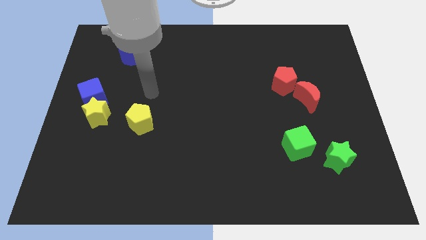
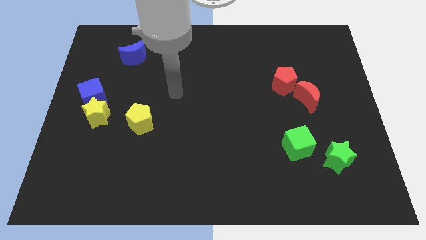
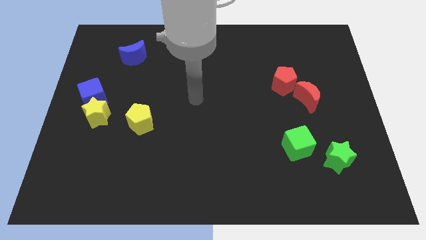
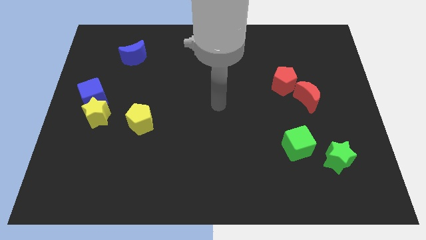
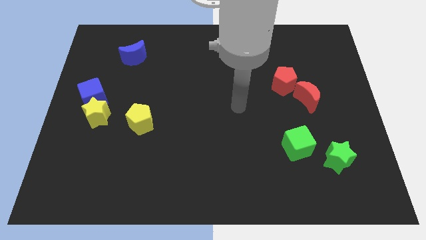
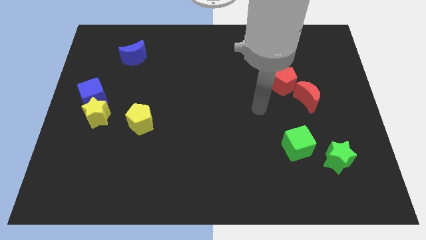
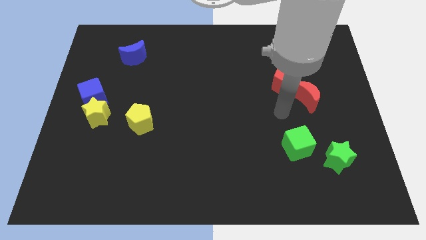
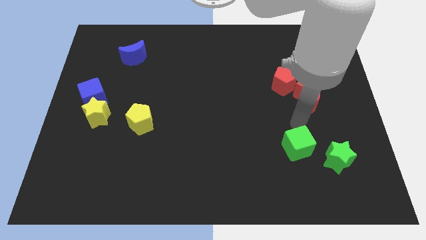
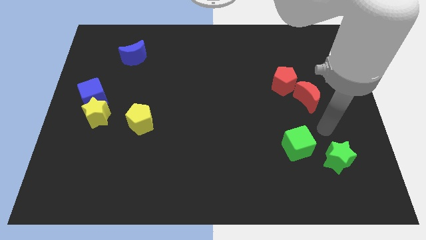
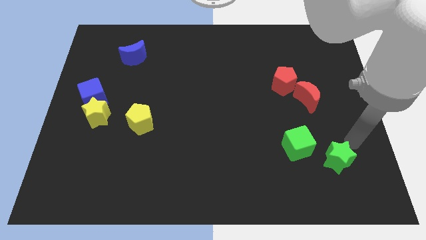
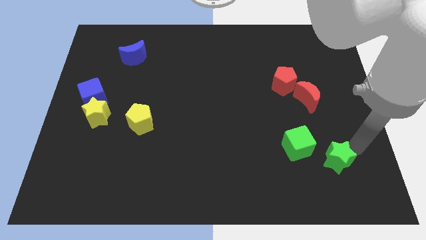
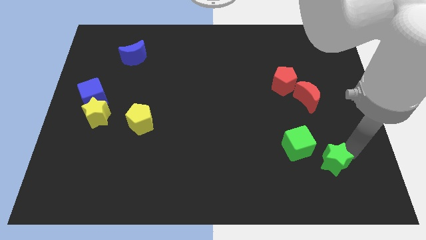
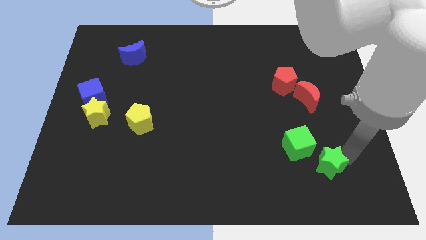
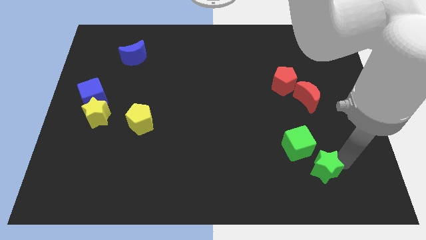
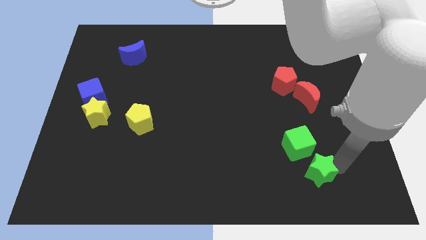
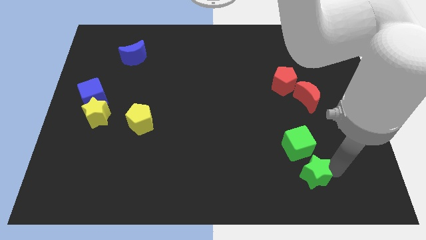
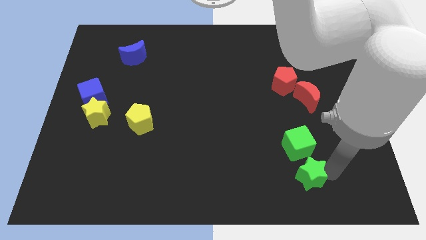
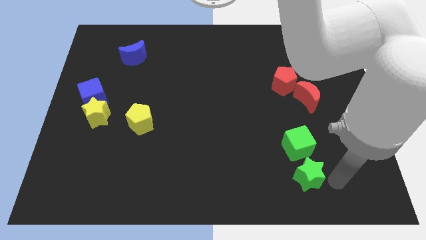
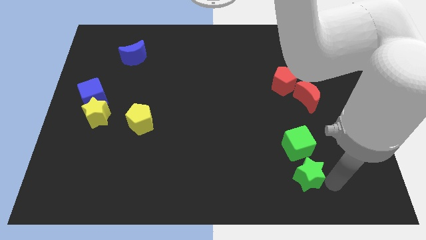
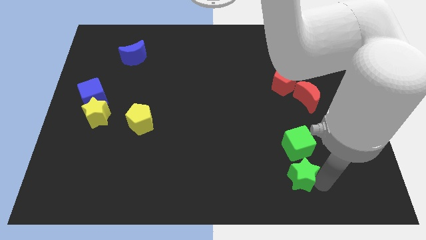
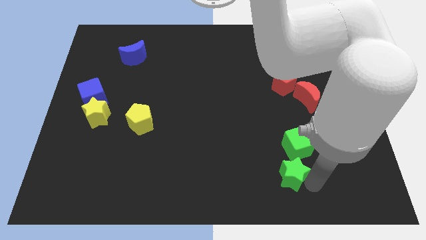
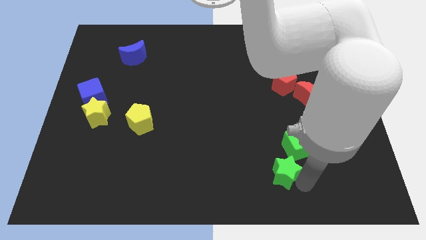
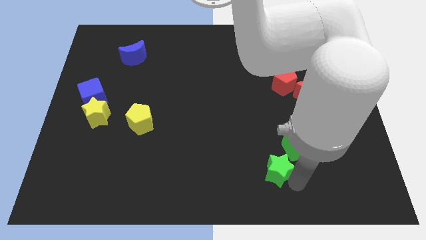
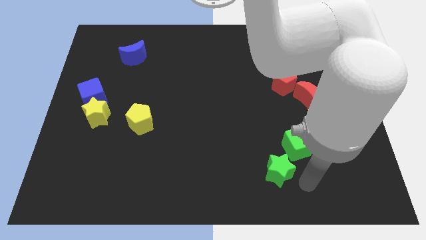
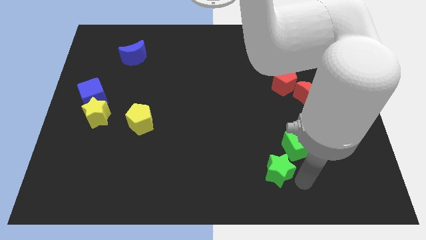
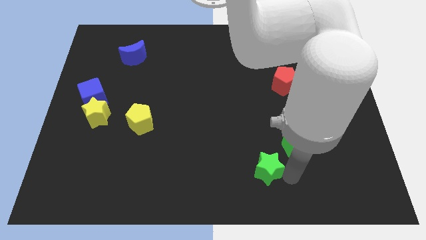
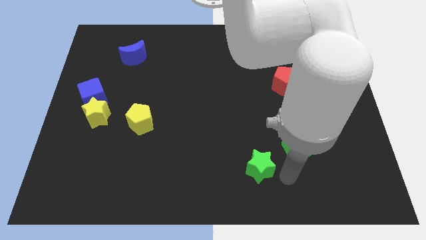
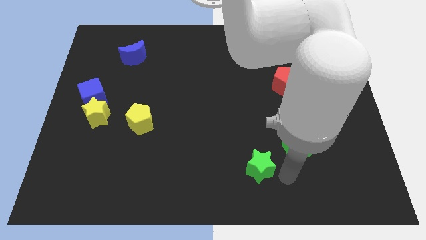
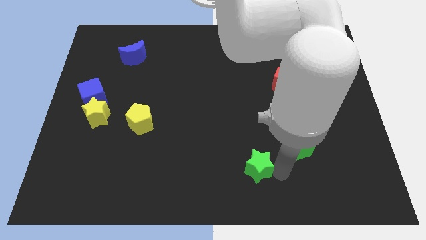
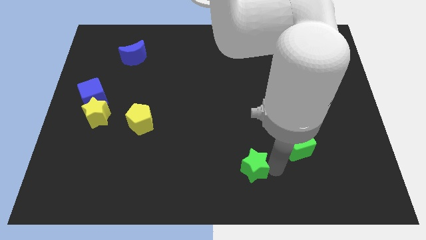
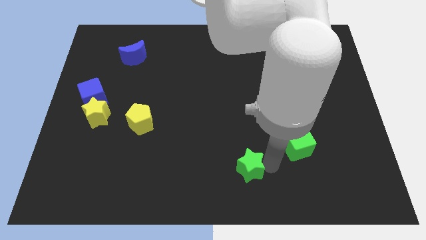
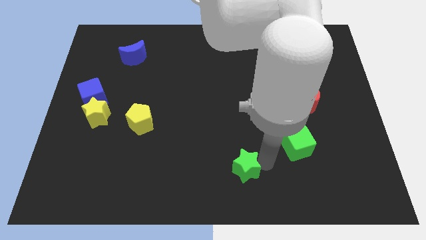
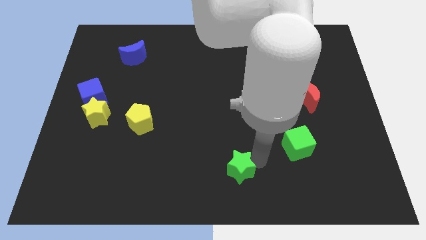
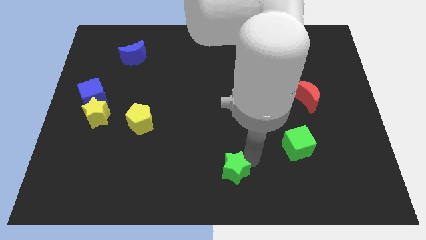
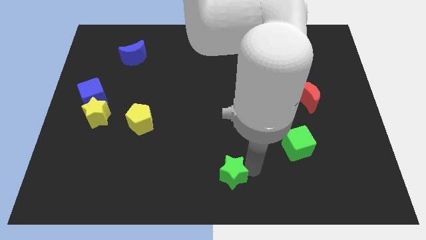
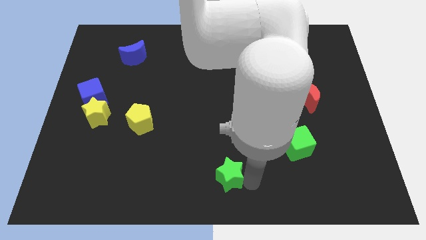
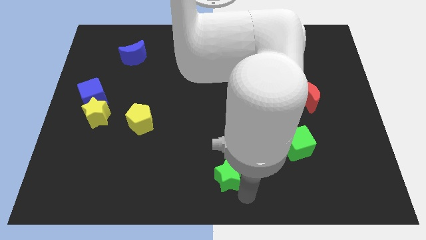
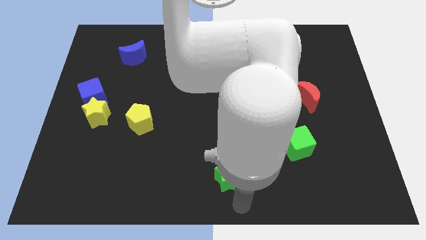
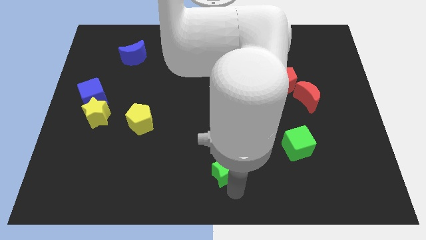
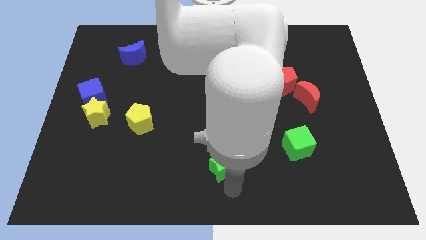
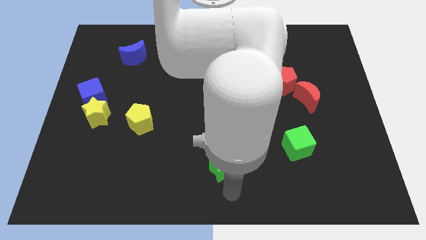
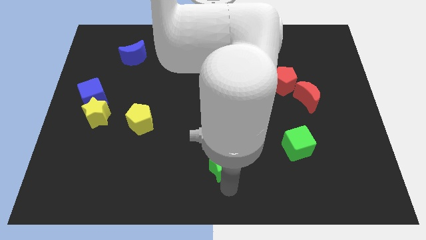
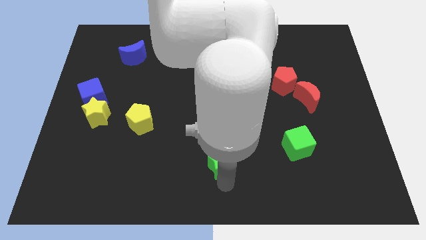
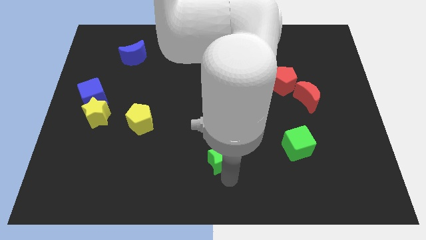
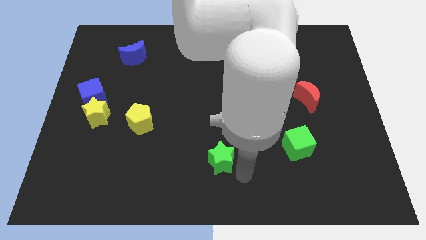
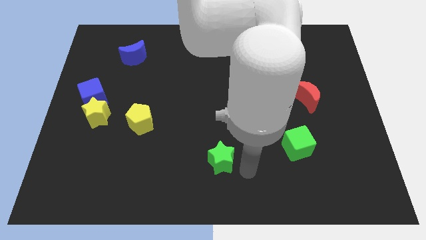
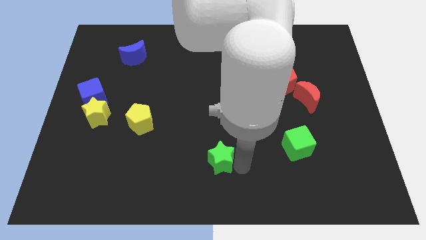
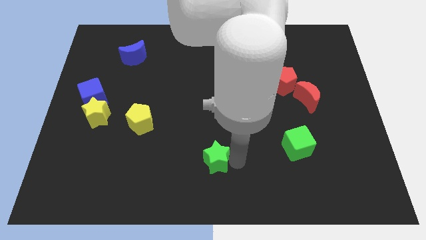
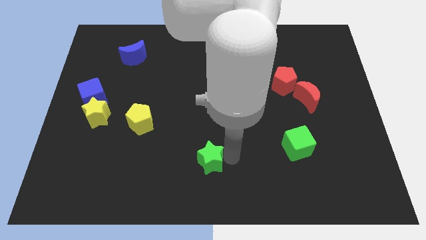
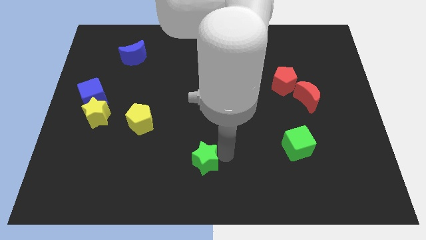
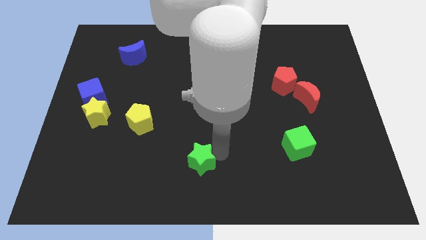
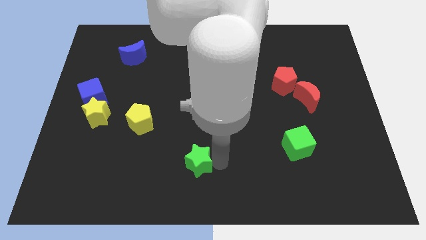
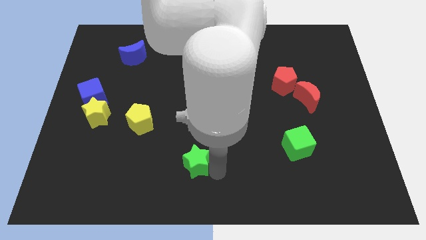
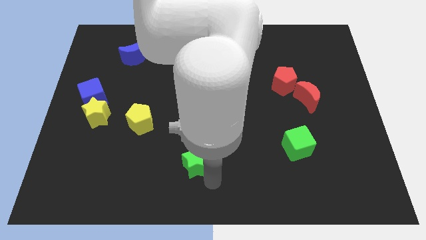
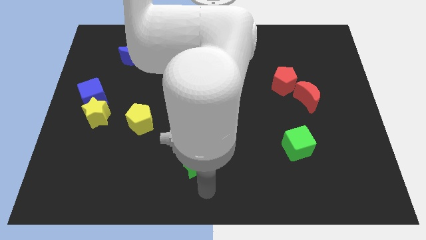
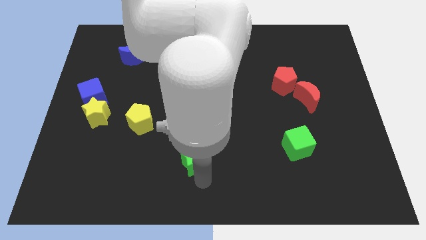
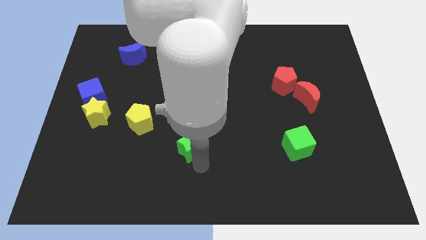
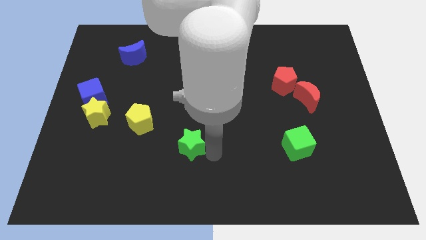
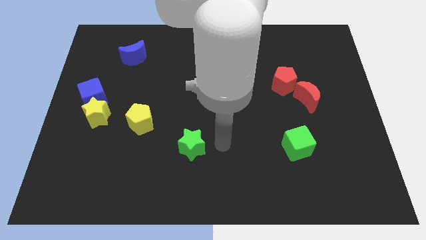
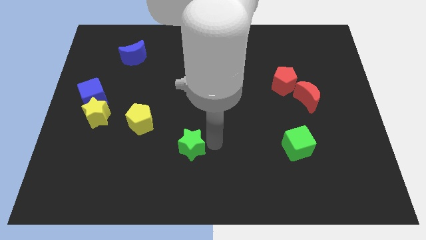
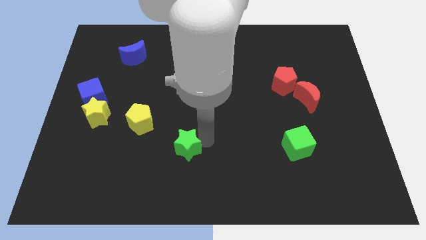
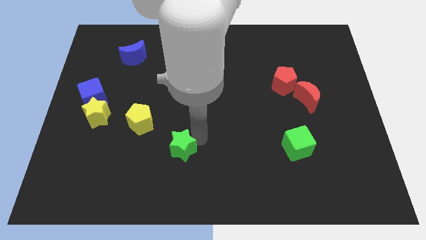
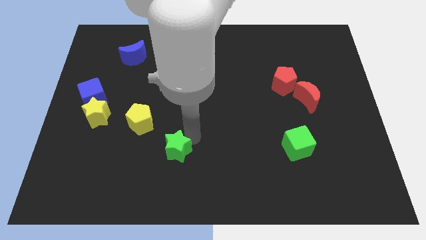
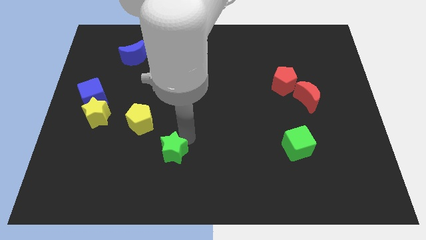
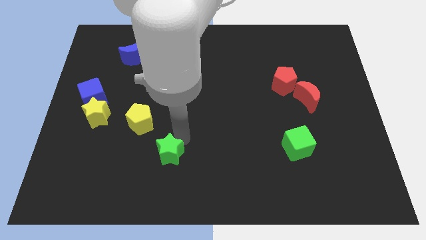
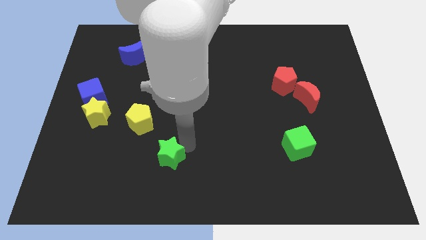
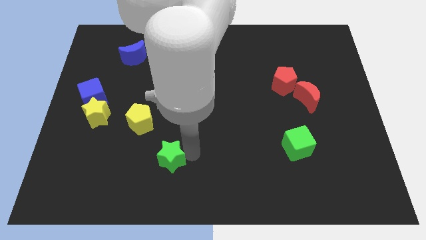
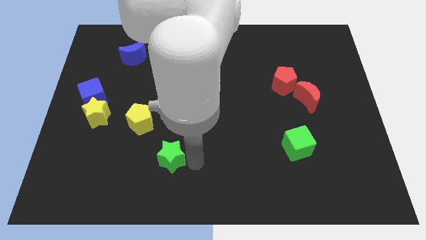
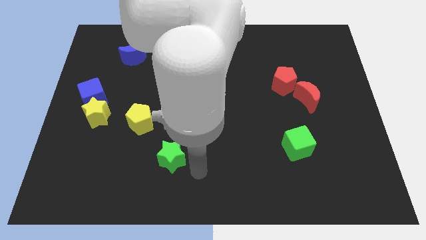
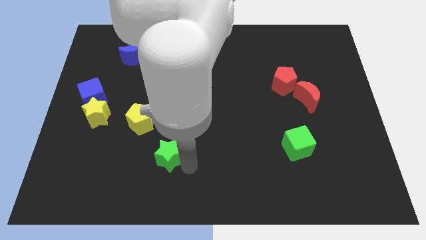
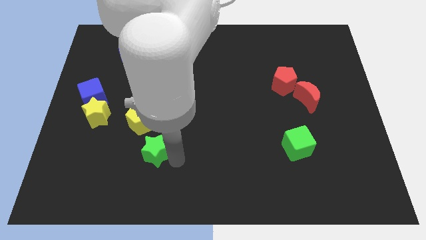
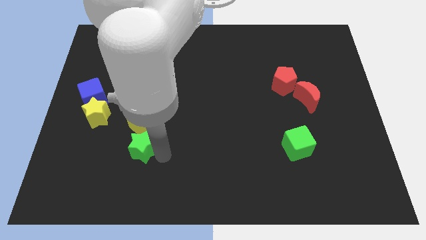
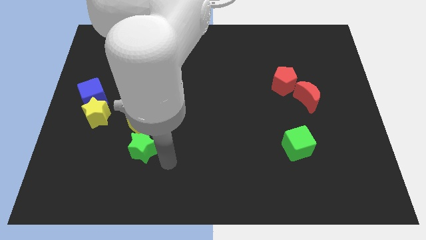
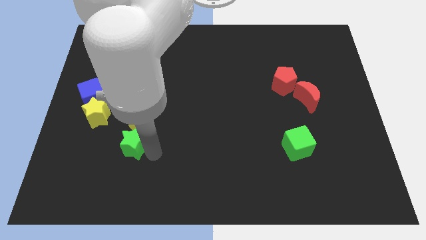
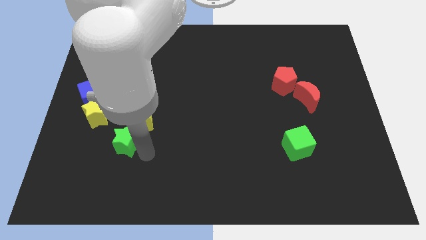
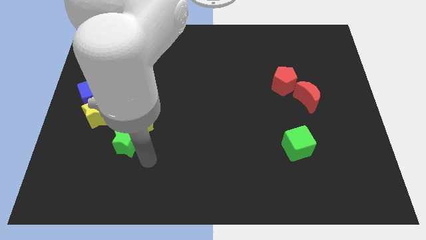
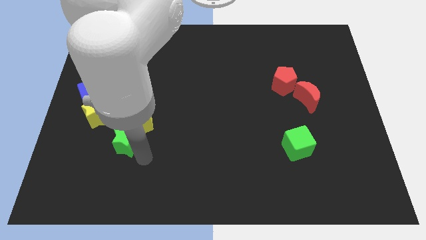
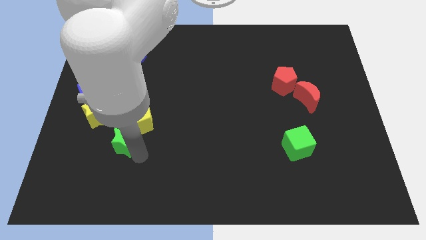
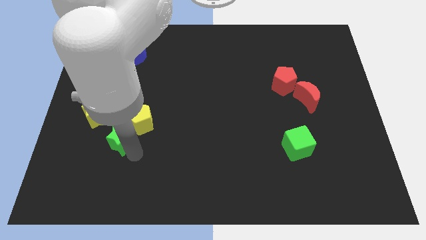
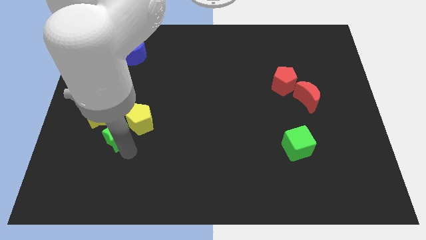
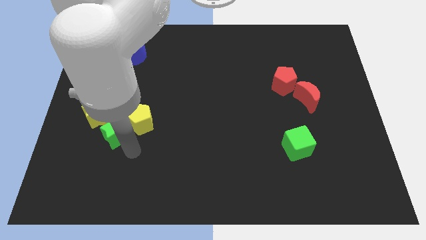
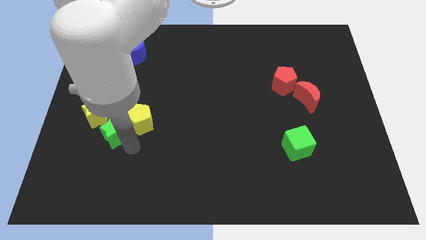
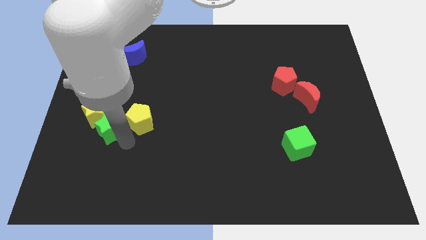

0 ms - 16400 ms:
push the green star towards the yellow star
